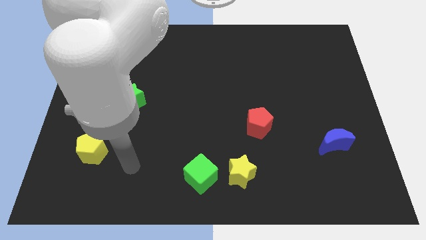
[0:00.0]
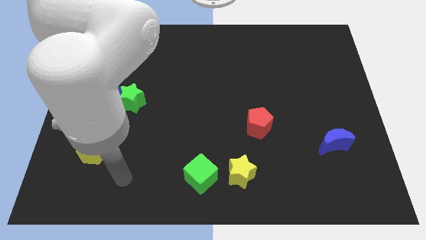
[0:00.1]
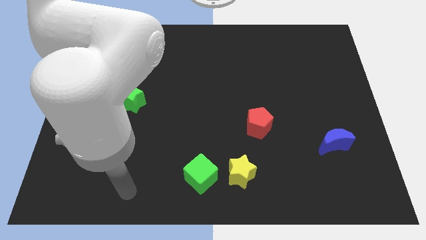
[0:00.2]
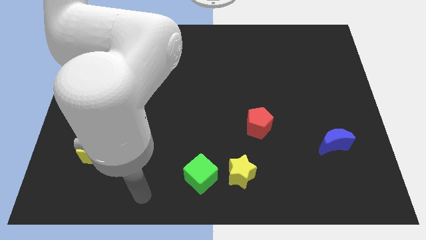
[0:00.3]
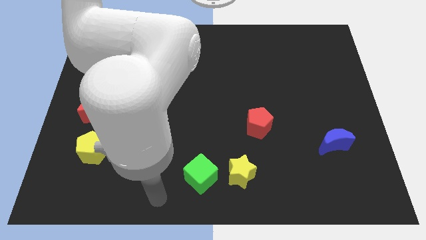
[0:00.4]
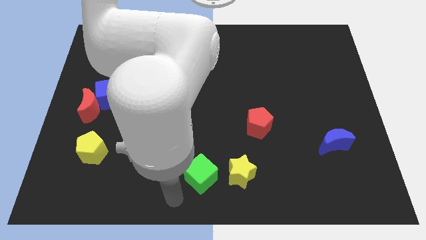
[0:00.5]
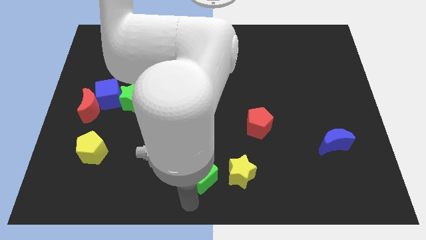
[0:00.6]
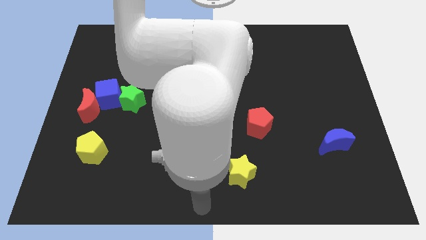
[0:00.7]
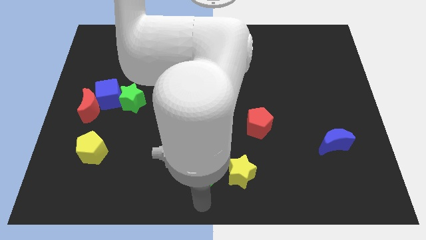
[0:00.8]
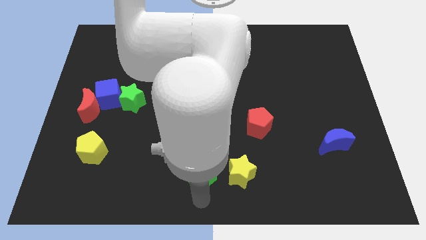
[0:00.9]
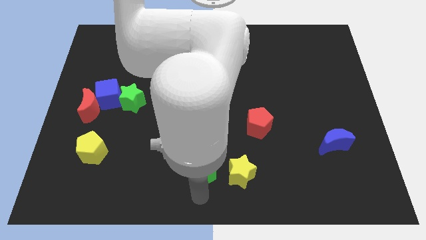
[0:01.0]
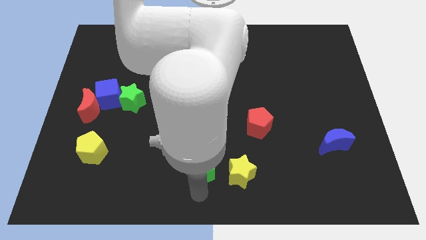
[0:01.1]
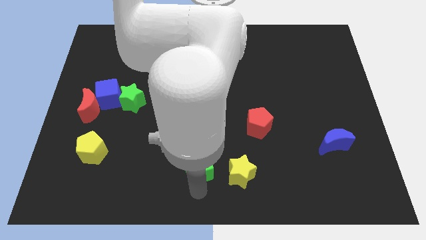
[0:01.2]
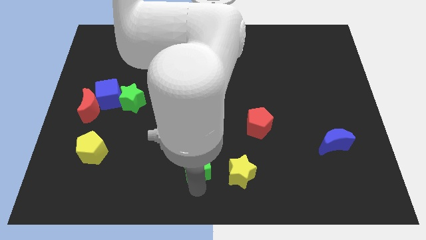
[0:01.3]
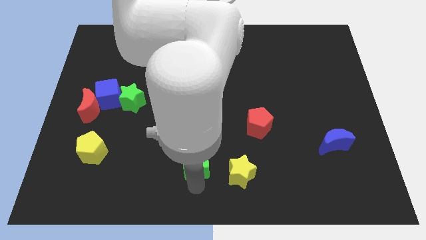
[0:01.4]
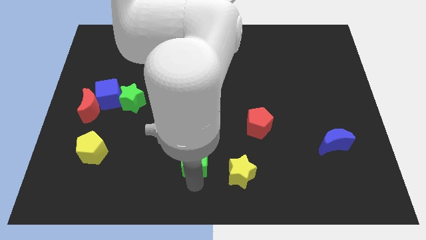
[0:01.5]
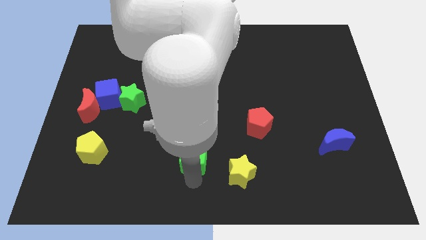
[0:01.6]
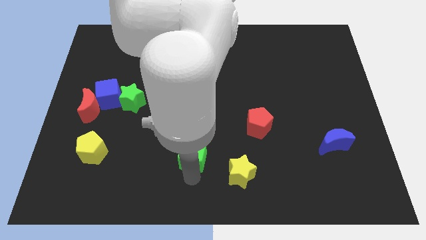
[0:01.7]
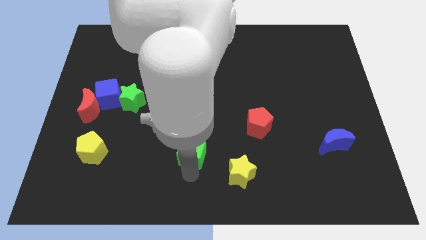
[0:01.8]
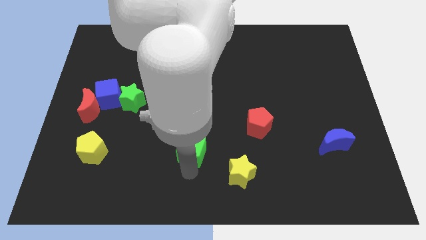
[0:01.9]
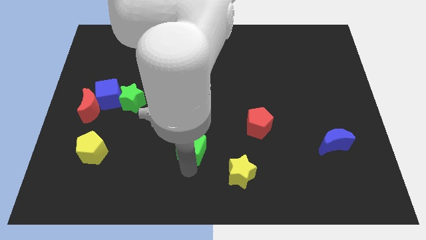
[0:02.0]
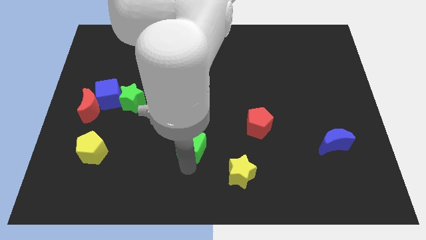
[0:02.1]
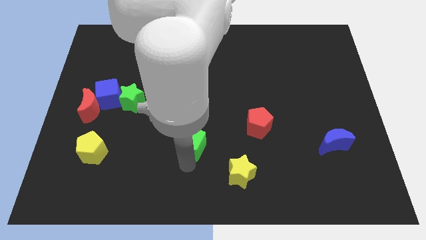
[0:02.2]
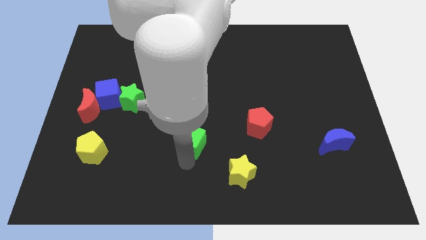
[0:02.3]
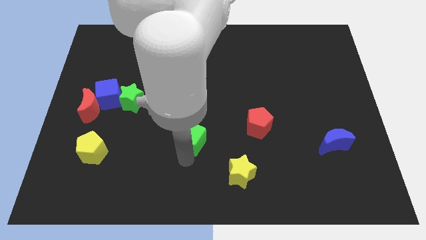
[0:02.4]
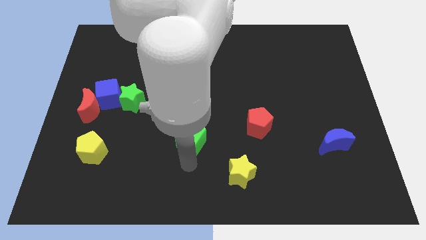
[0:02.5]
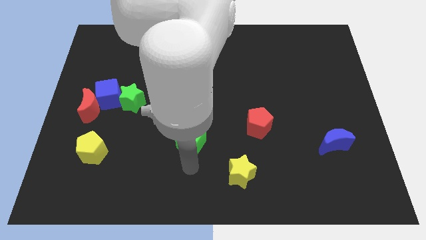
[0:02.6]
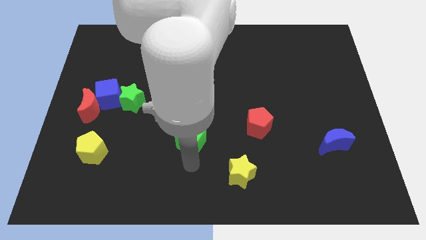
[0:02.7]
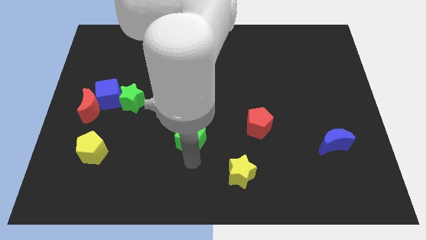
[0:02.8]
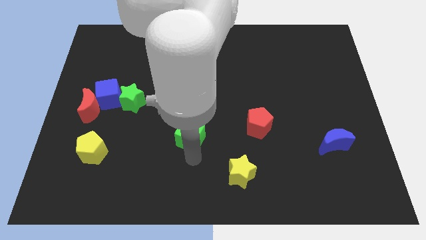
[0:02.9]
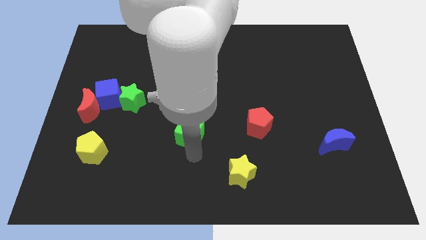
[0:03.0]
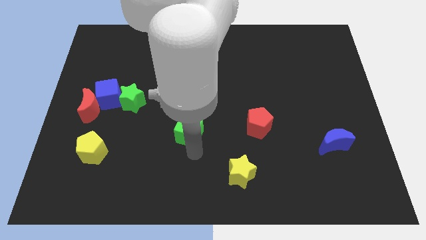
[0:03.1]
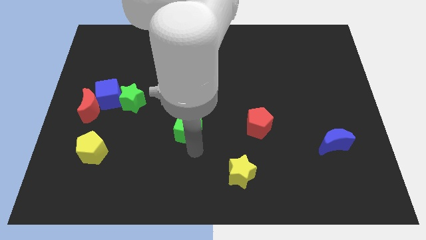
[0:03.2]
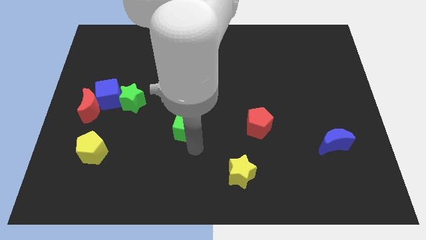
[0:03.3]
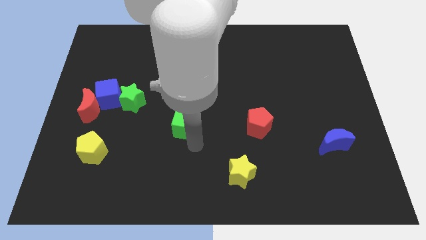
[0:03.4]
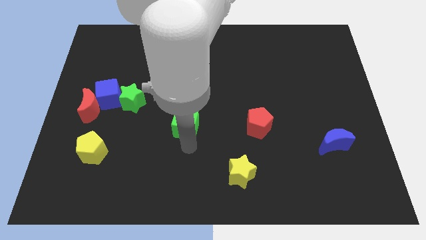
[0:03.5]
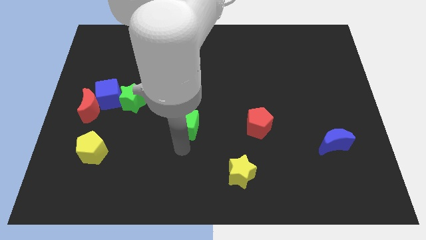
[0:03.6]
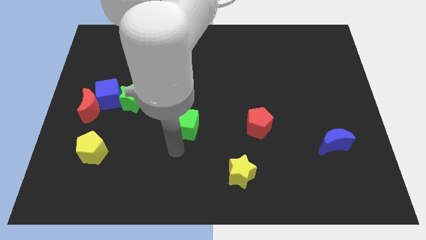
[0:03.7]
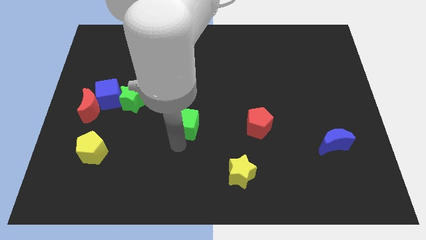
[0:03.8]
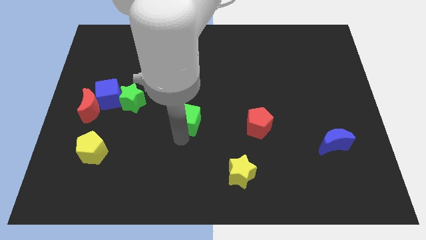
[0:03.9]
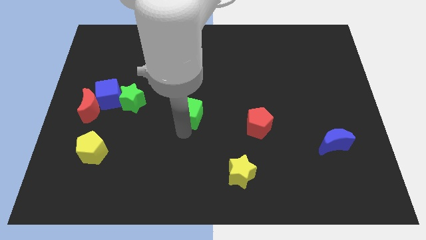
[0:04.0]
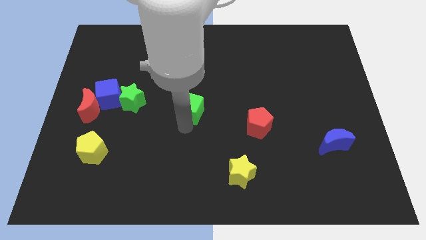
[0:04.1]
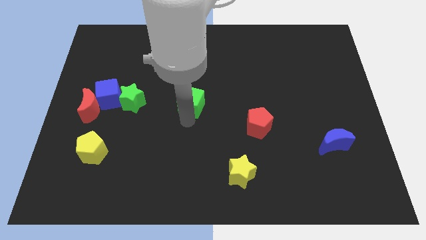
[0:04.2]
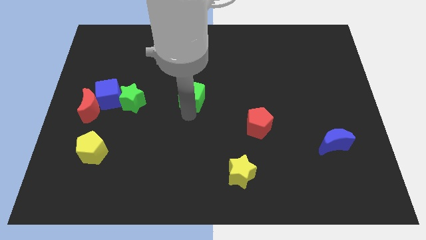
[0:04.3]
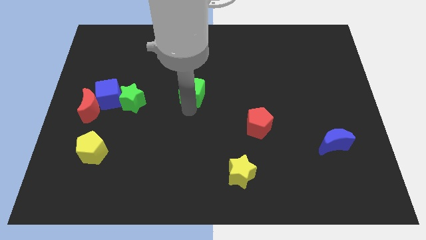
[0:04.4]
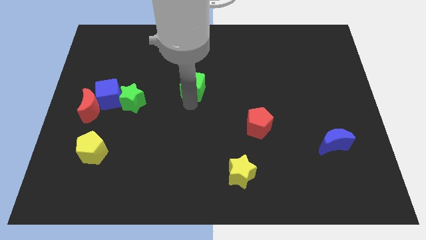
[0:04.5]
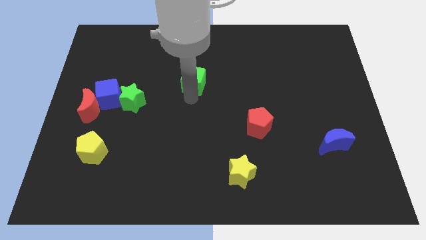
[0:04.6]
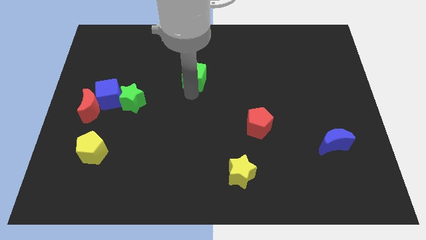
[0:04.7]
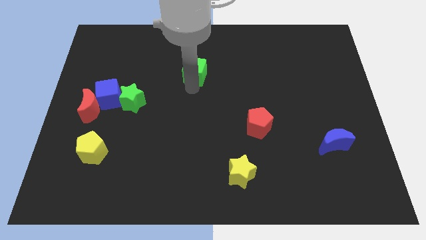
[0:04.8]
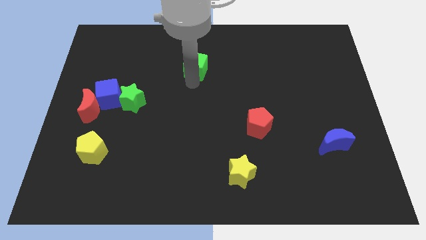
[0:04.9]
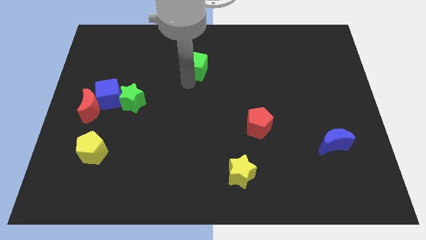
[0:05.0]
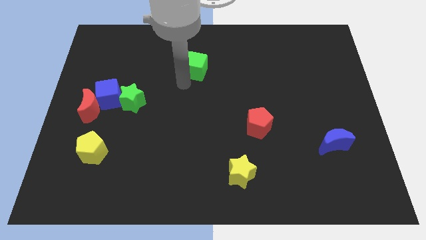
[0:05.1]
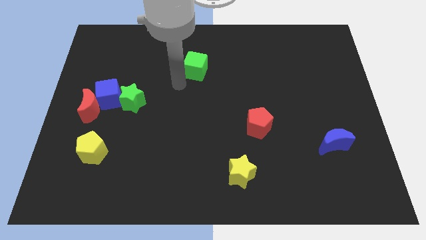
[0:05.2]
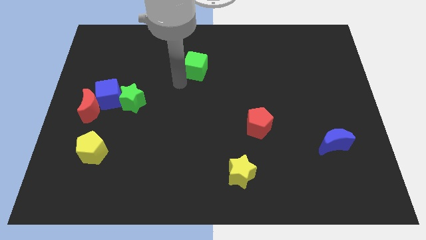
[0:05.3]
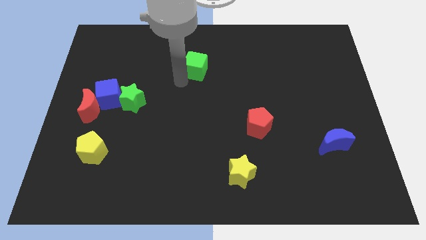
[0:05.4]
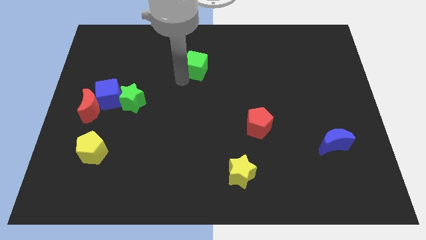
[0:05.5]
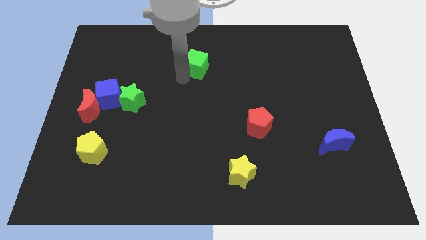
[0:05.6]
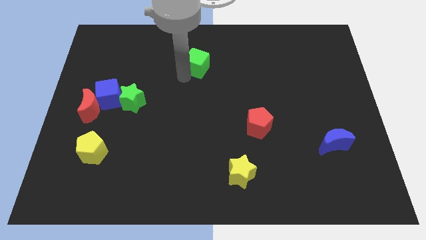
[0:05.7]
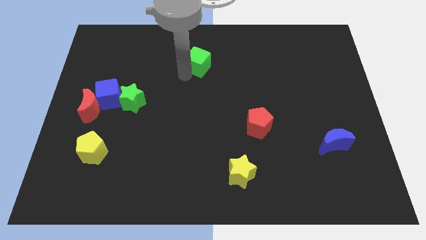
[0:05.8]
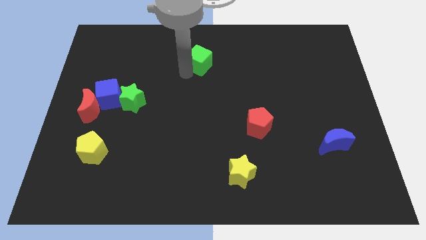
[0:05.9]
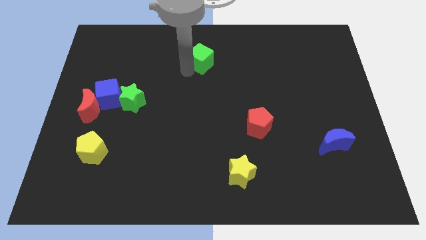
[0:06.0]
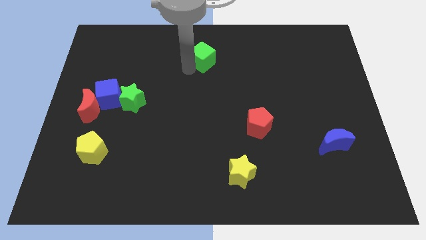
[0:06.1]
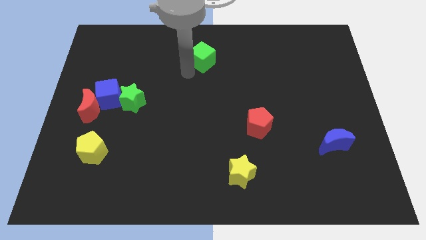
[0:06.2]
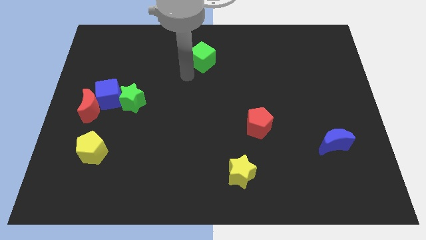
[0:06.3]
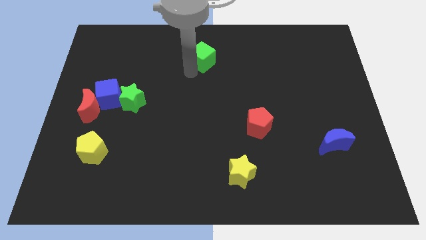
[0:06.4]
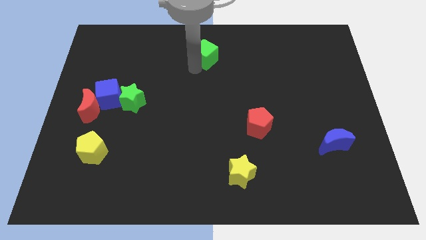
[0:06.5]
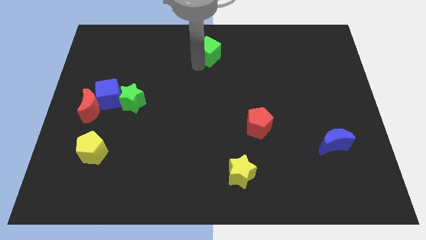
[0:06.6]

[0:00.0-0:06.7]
push the green cube to the top
